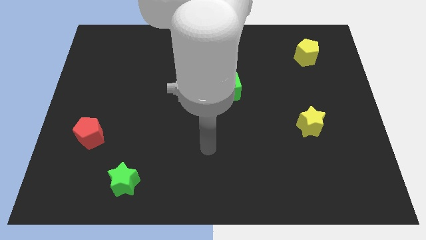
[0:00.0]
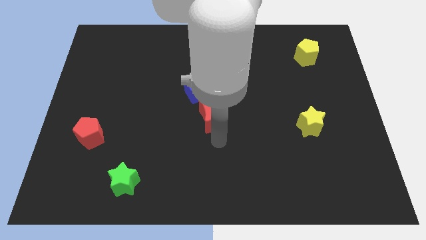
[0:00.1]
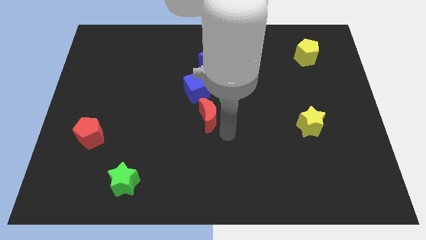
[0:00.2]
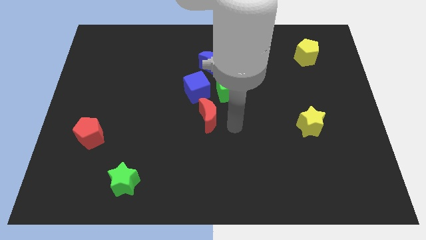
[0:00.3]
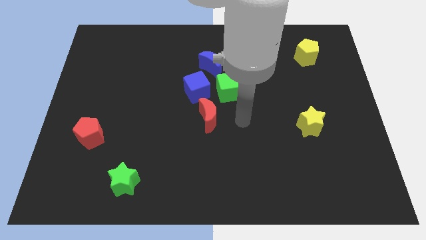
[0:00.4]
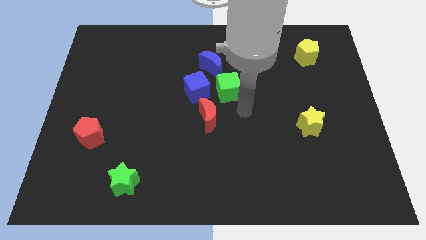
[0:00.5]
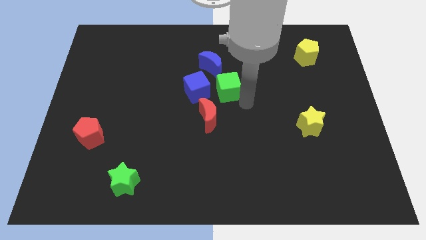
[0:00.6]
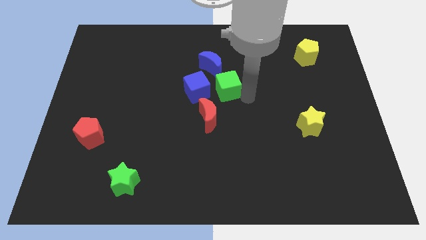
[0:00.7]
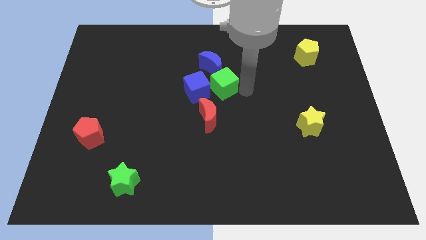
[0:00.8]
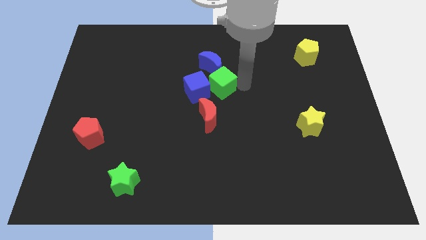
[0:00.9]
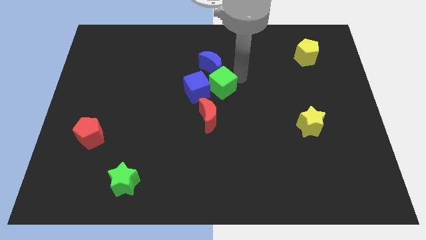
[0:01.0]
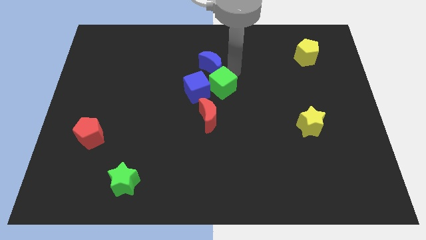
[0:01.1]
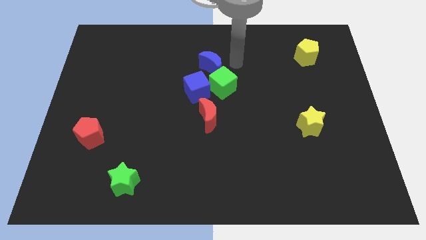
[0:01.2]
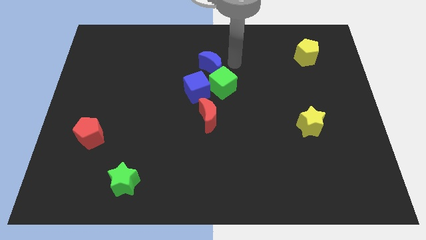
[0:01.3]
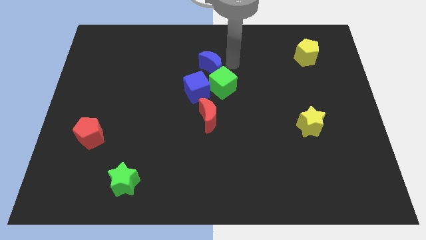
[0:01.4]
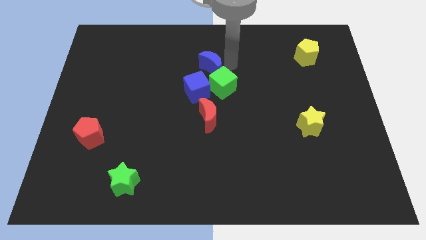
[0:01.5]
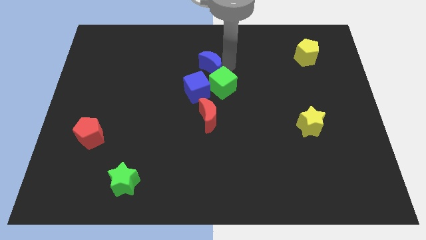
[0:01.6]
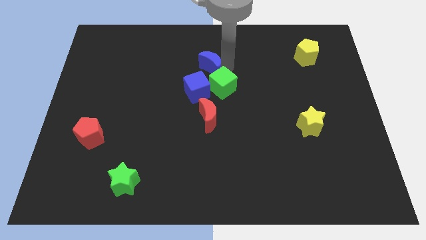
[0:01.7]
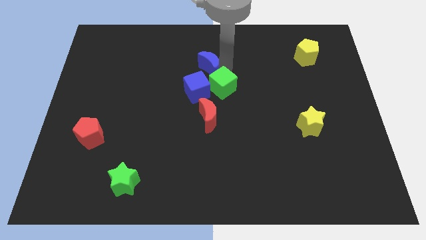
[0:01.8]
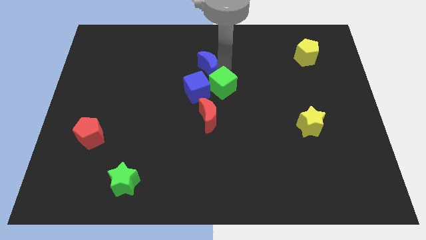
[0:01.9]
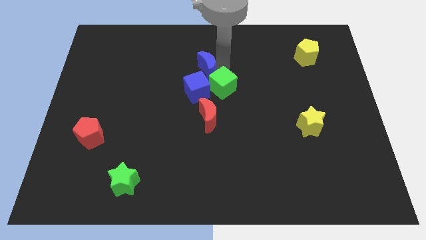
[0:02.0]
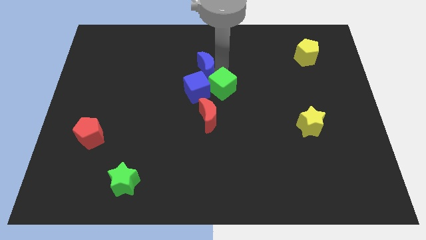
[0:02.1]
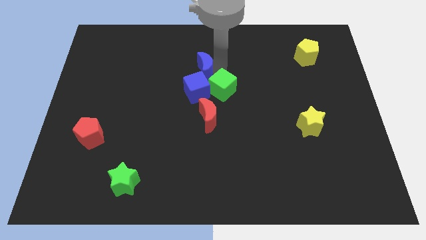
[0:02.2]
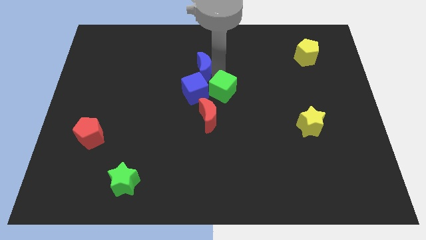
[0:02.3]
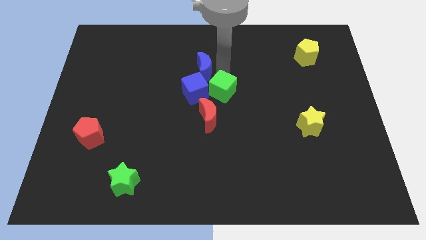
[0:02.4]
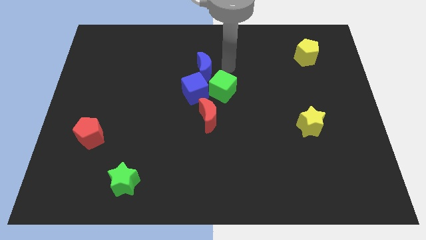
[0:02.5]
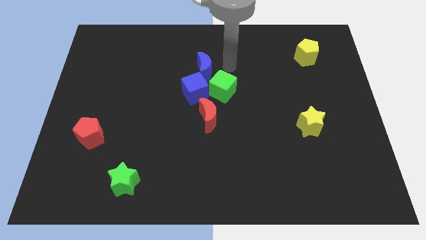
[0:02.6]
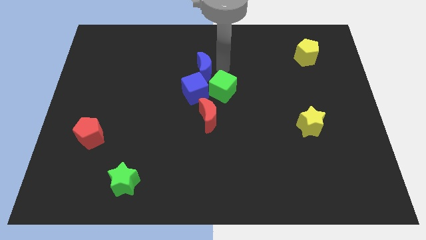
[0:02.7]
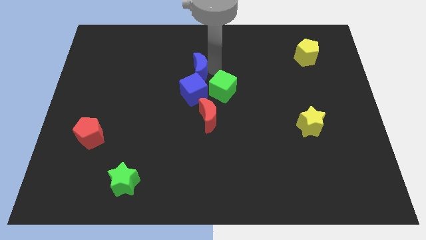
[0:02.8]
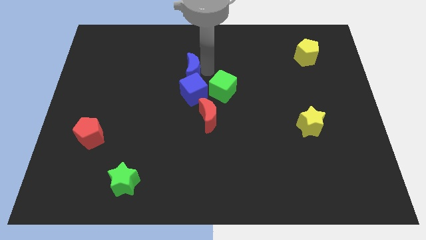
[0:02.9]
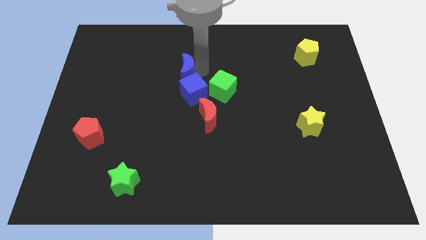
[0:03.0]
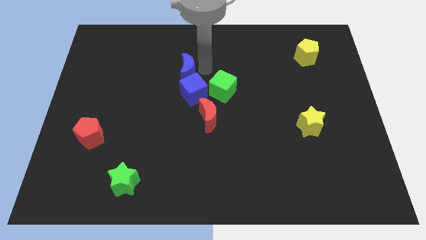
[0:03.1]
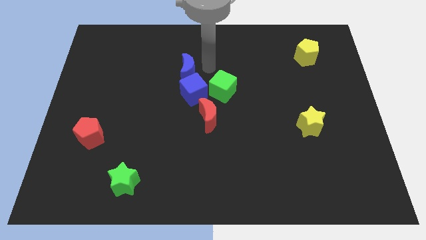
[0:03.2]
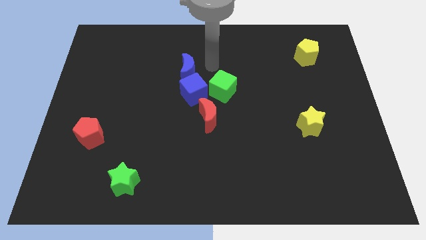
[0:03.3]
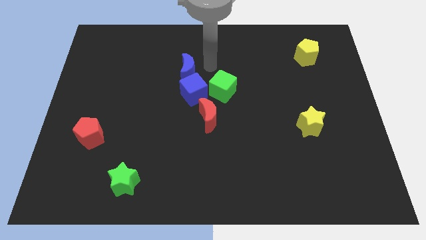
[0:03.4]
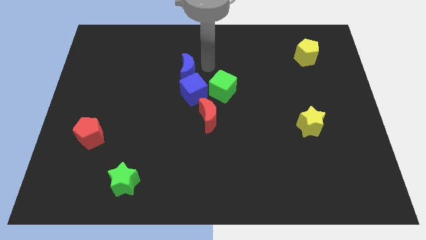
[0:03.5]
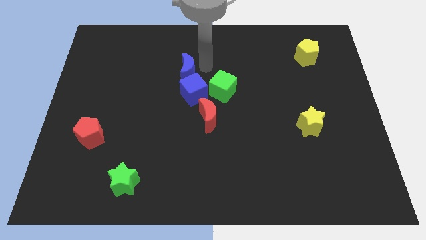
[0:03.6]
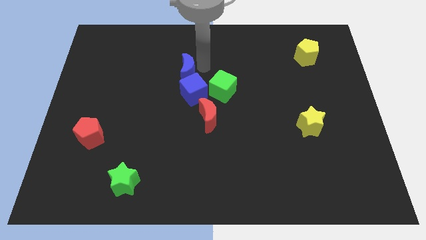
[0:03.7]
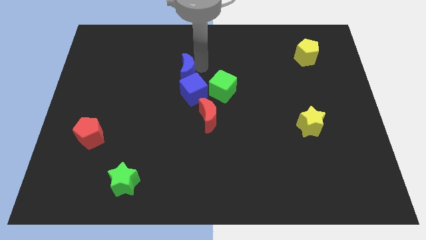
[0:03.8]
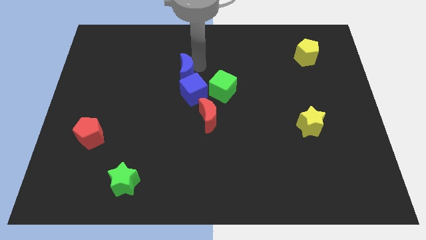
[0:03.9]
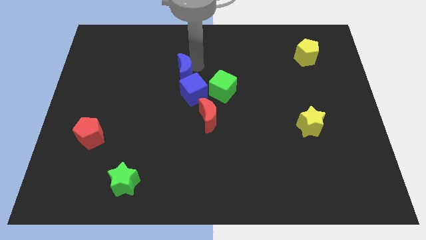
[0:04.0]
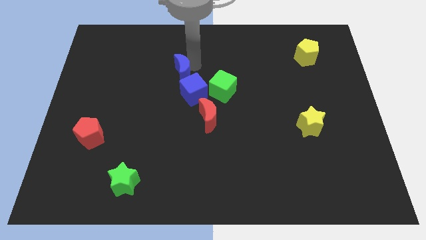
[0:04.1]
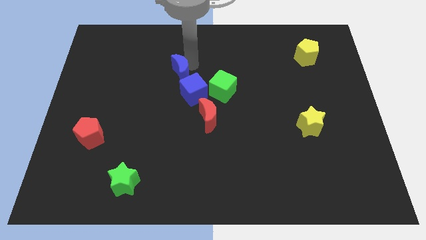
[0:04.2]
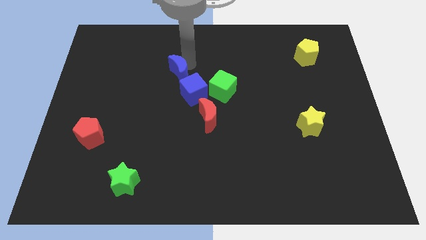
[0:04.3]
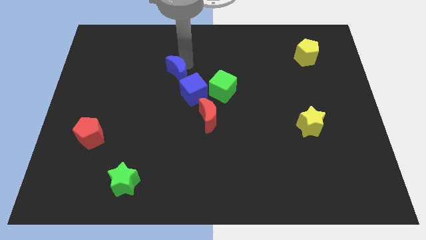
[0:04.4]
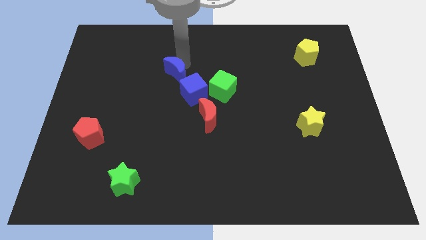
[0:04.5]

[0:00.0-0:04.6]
push the blue moon slightly downwards and to the left diagonally

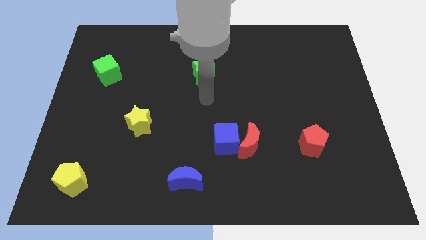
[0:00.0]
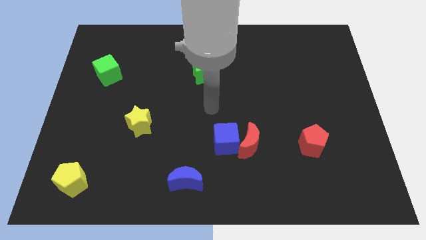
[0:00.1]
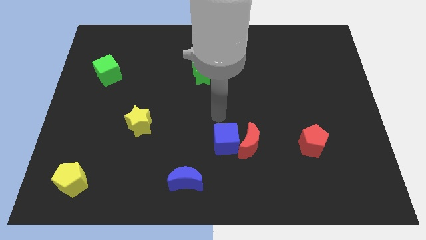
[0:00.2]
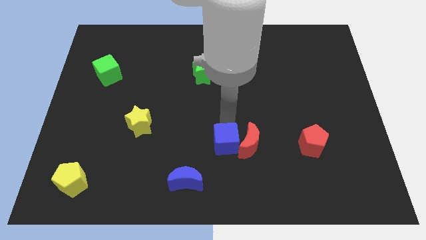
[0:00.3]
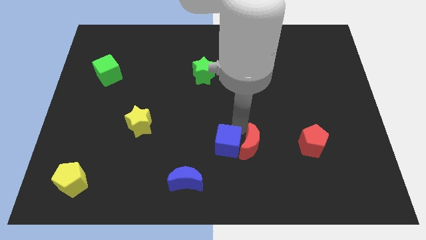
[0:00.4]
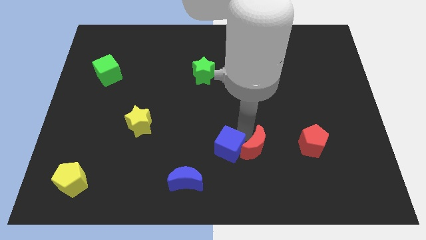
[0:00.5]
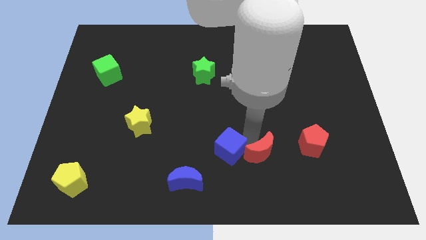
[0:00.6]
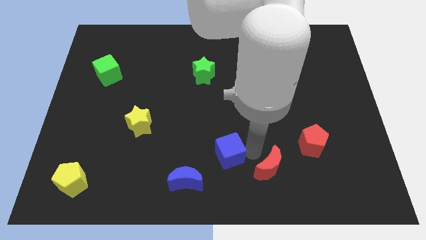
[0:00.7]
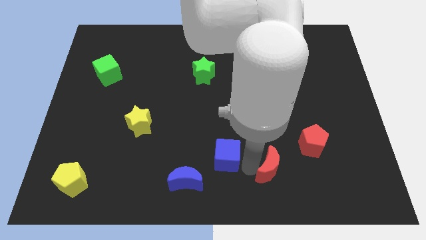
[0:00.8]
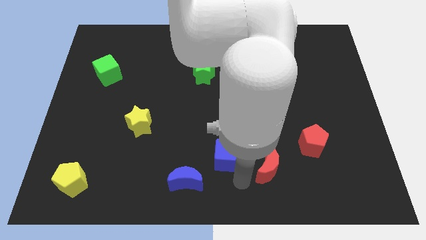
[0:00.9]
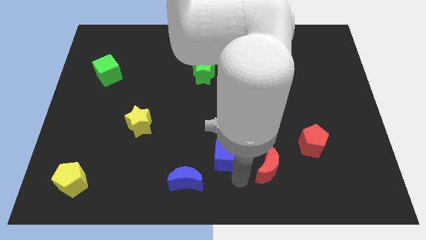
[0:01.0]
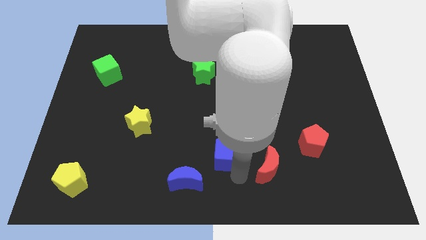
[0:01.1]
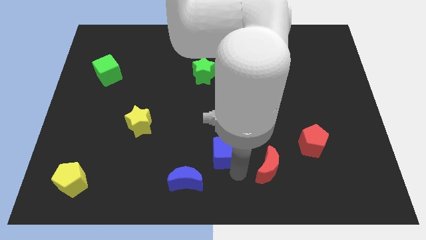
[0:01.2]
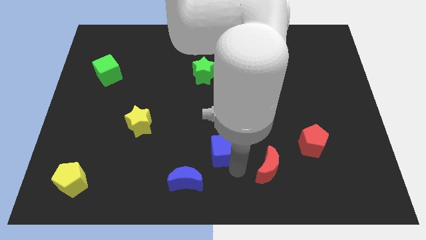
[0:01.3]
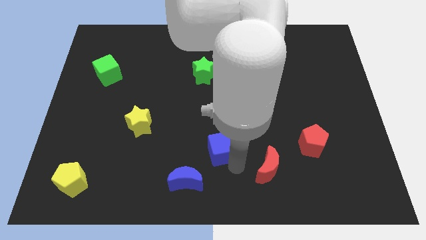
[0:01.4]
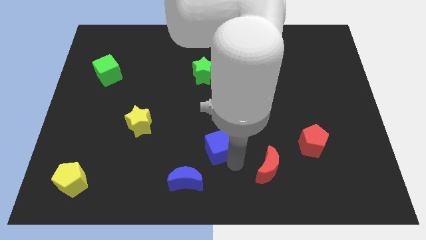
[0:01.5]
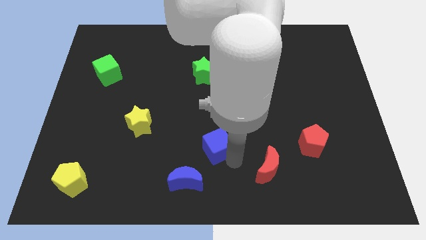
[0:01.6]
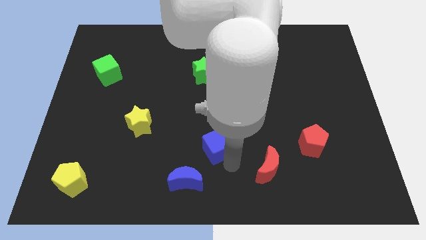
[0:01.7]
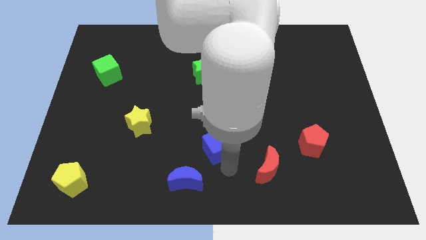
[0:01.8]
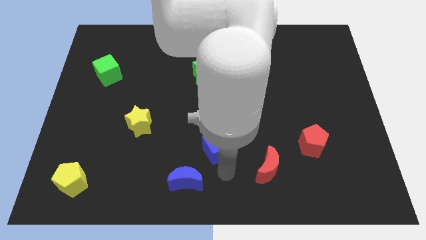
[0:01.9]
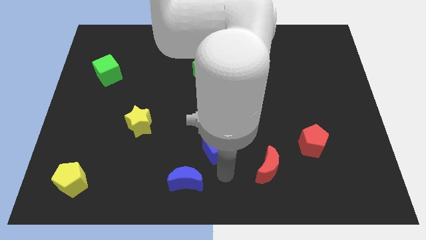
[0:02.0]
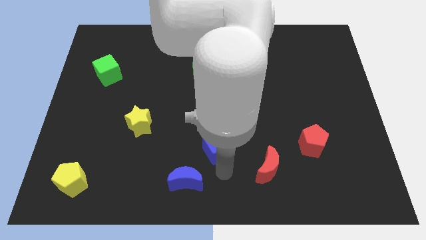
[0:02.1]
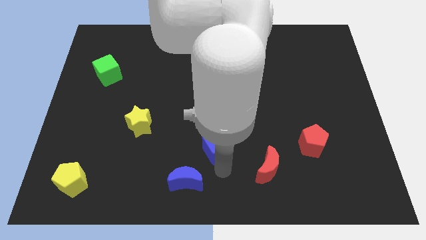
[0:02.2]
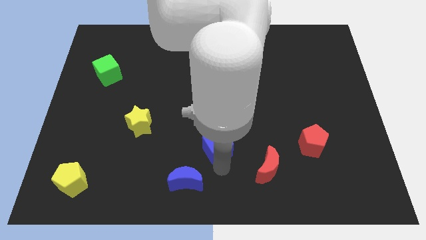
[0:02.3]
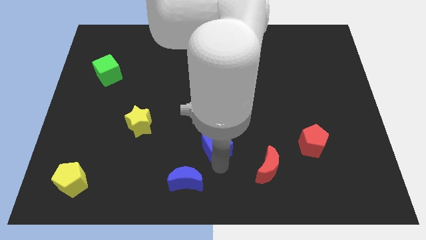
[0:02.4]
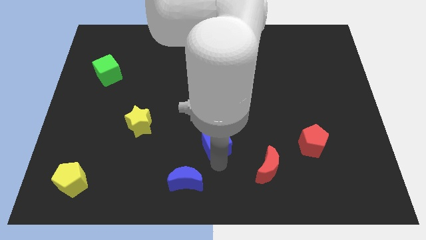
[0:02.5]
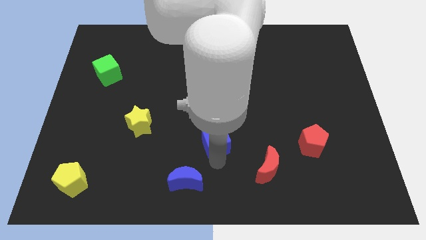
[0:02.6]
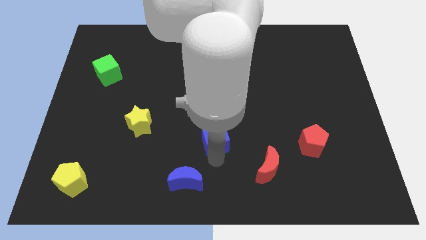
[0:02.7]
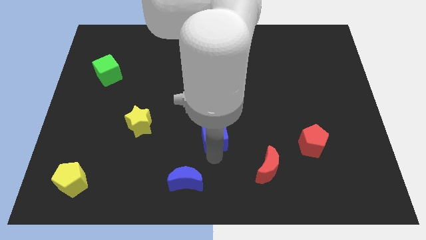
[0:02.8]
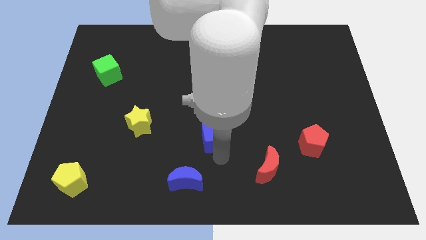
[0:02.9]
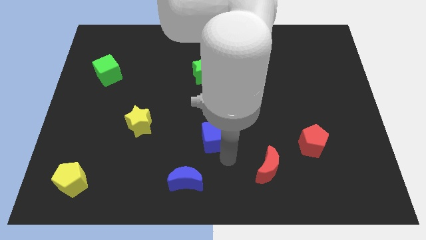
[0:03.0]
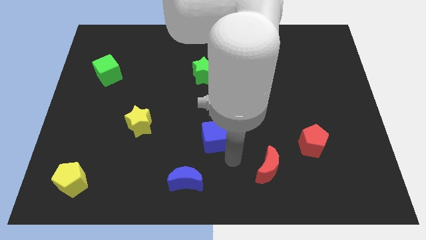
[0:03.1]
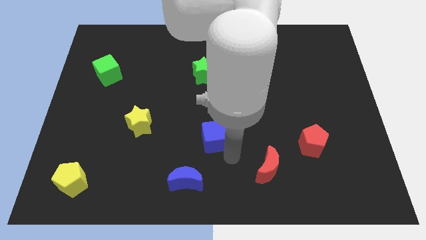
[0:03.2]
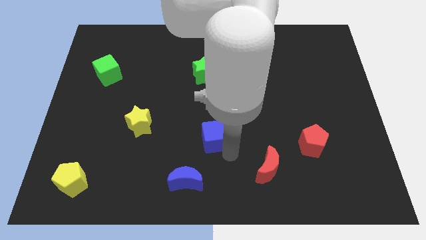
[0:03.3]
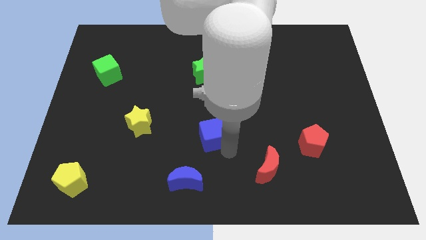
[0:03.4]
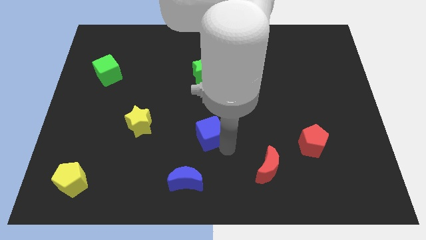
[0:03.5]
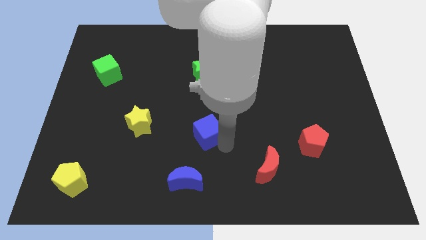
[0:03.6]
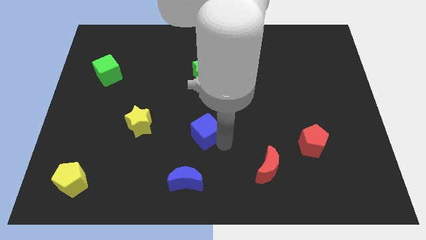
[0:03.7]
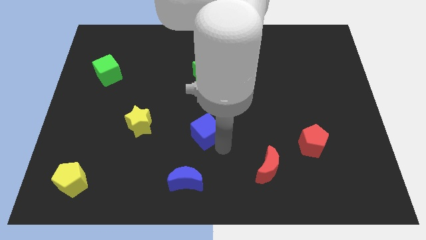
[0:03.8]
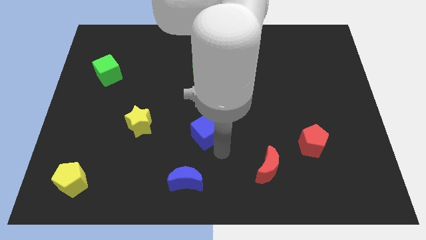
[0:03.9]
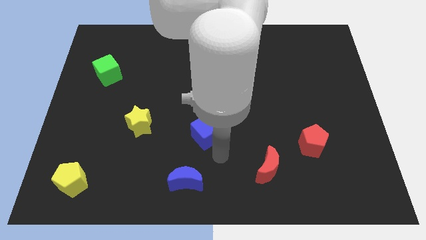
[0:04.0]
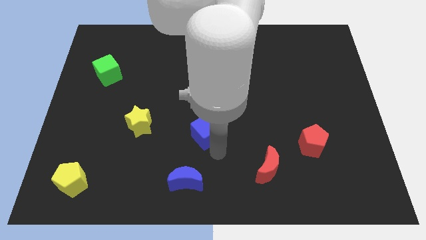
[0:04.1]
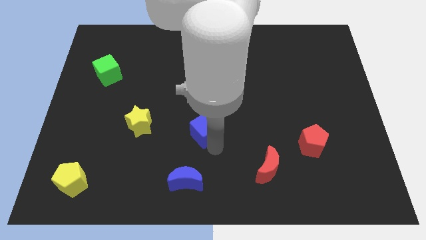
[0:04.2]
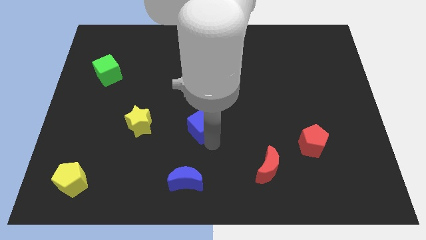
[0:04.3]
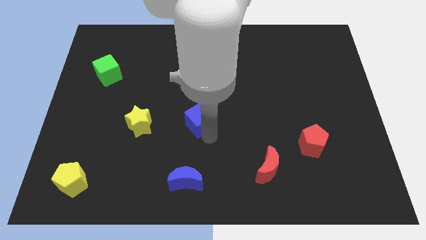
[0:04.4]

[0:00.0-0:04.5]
slightly push the blue cube up and then to the left
